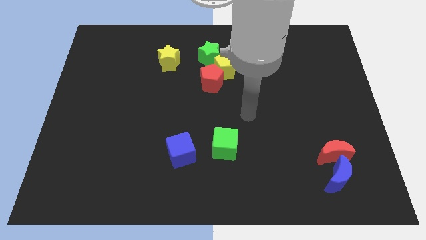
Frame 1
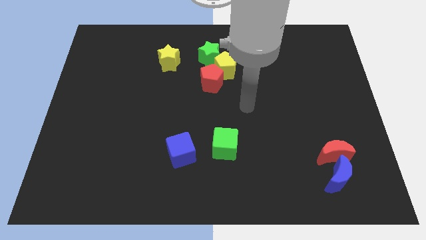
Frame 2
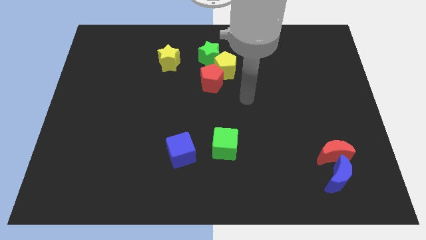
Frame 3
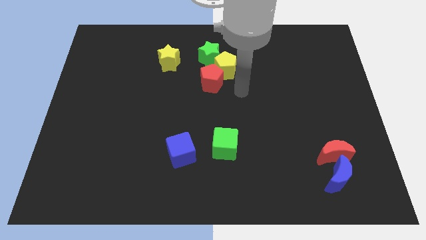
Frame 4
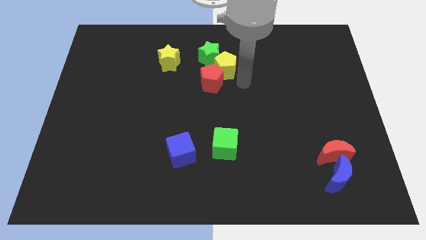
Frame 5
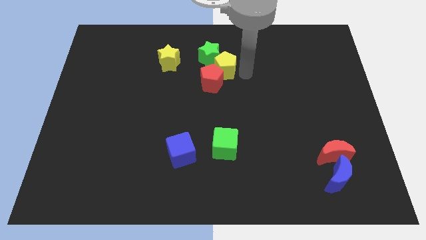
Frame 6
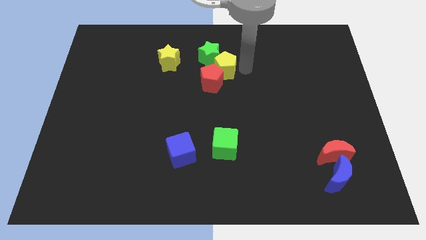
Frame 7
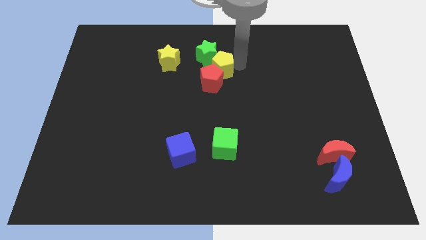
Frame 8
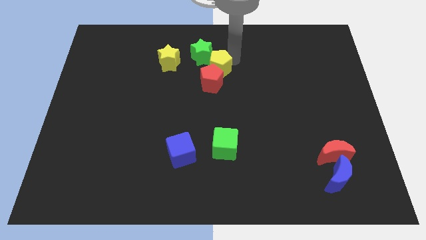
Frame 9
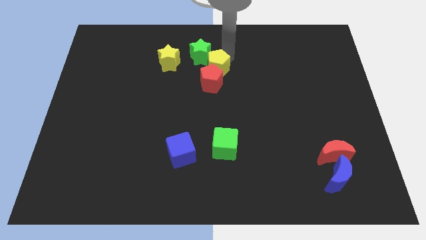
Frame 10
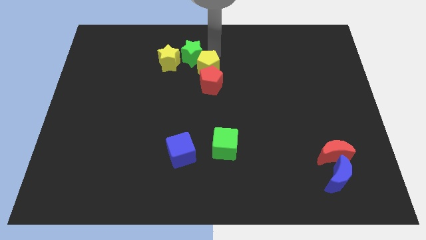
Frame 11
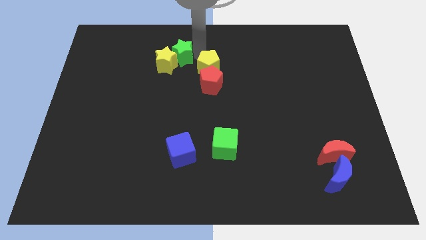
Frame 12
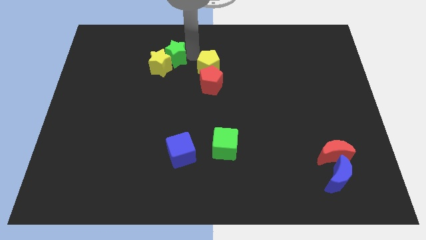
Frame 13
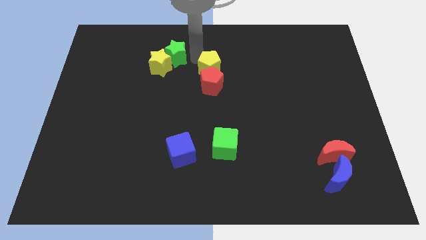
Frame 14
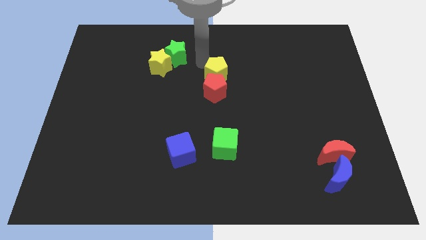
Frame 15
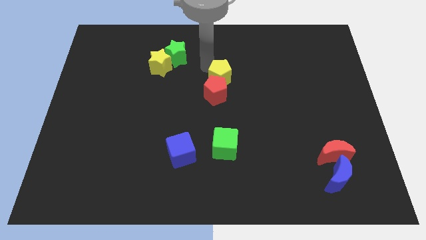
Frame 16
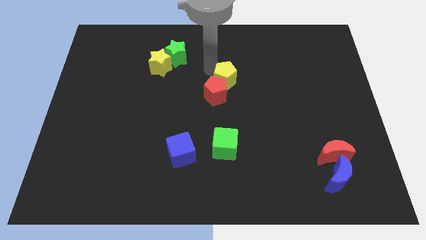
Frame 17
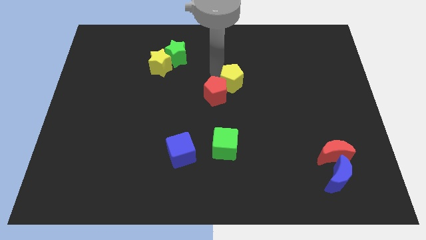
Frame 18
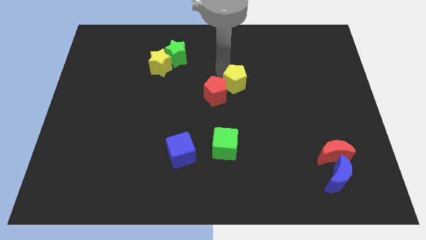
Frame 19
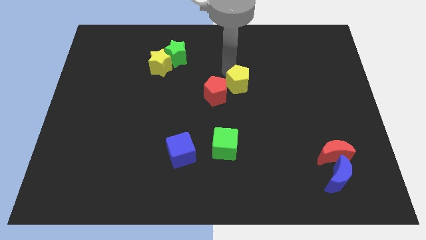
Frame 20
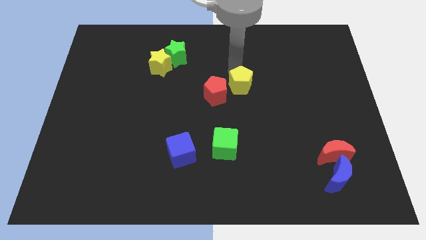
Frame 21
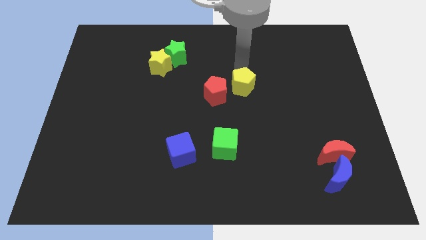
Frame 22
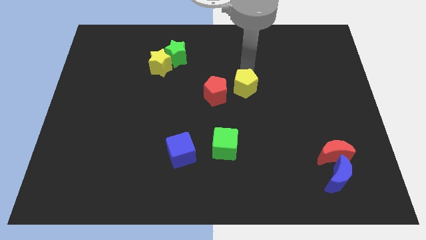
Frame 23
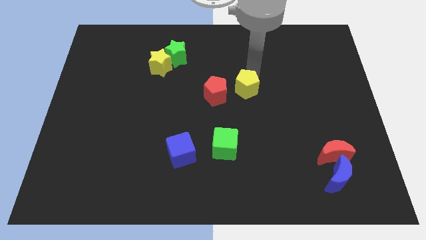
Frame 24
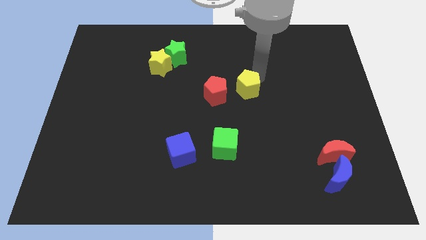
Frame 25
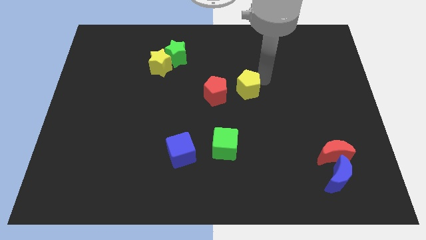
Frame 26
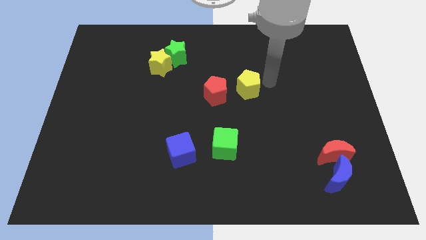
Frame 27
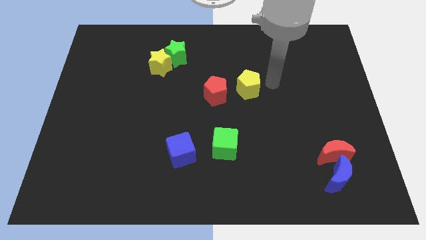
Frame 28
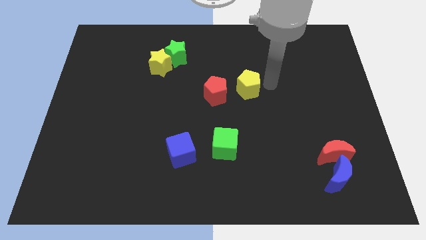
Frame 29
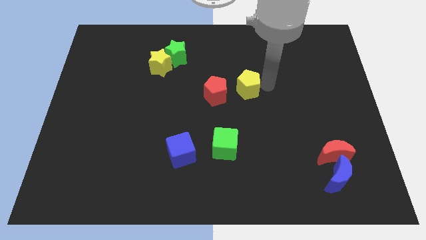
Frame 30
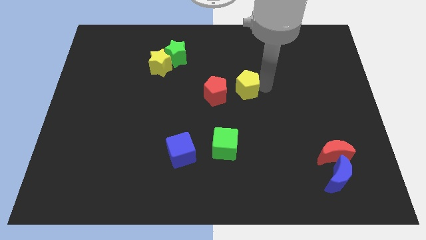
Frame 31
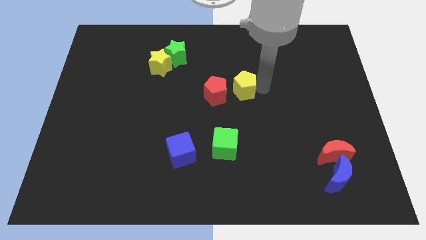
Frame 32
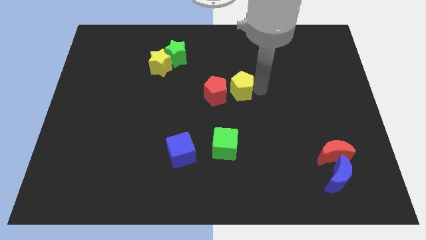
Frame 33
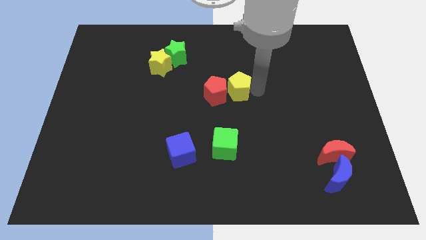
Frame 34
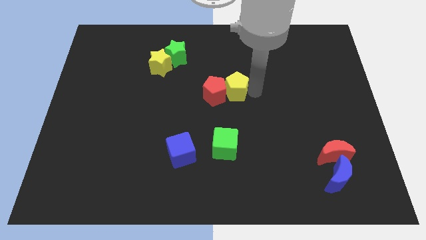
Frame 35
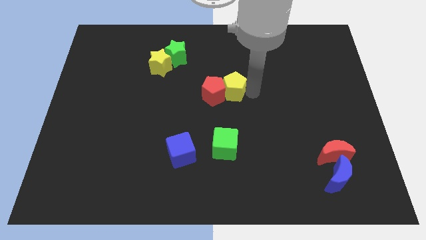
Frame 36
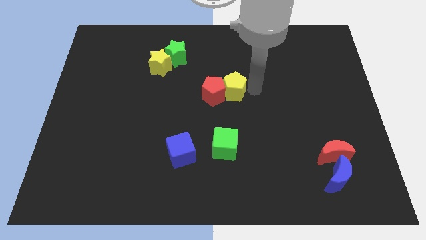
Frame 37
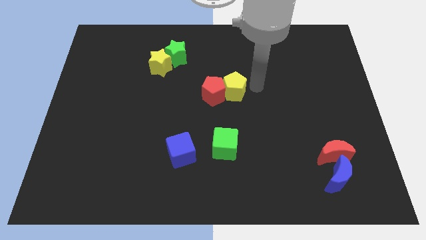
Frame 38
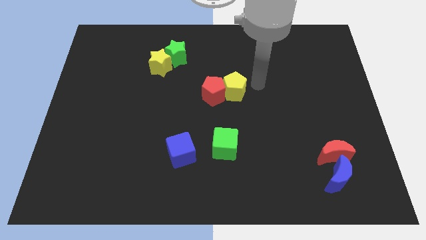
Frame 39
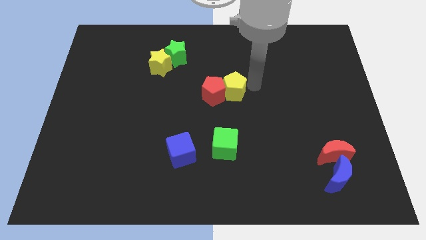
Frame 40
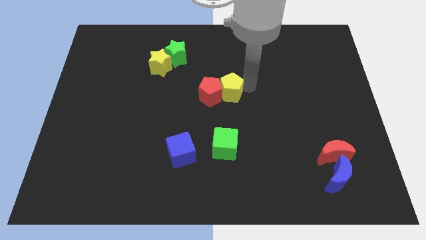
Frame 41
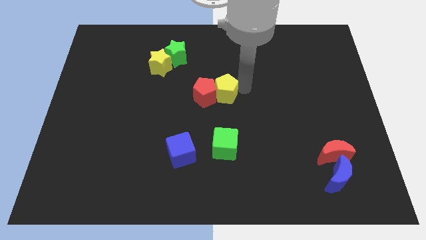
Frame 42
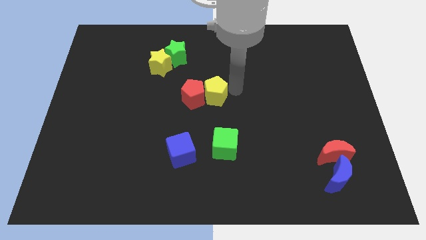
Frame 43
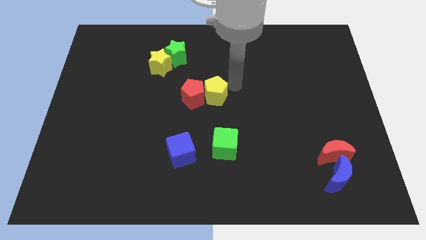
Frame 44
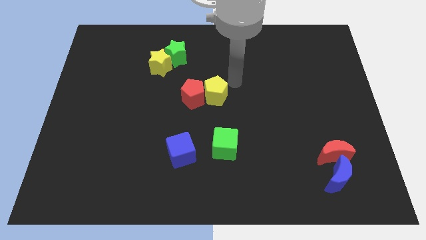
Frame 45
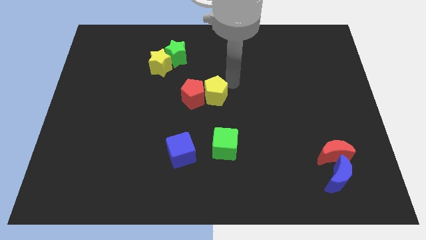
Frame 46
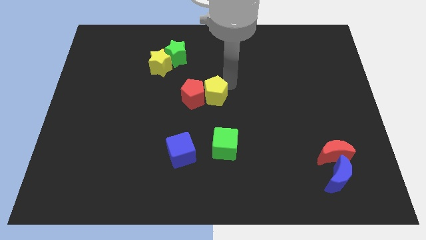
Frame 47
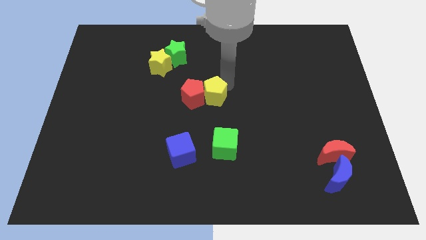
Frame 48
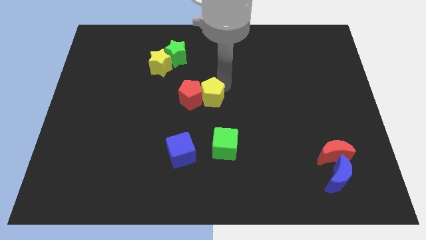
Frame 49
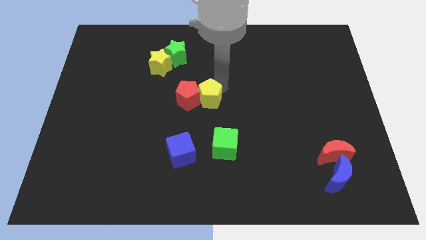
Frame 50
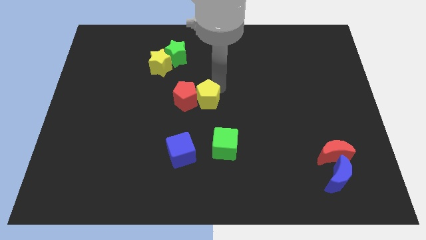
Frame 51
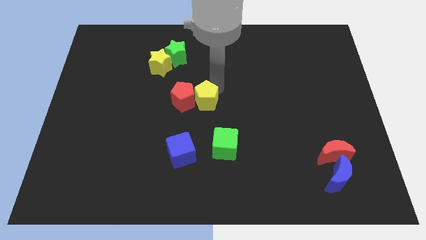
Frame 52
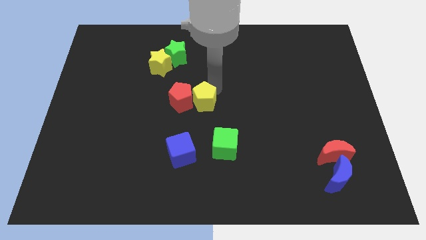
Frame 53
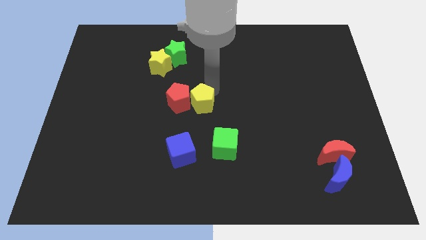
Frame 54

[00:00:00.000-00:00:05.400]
put the yellow pentagon to the top side of the blue cube

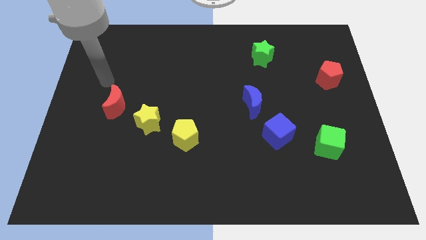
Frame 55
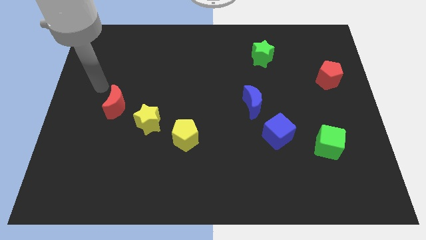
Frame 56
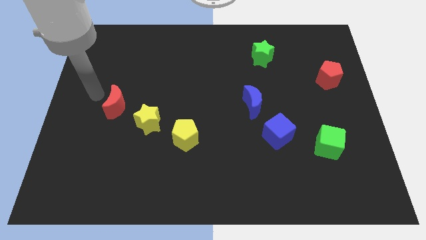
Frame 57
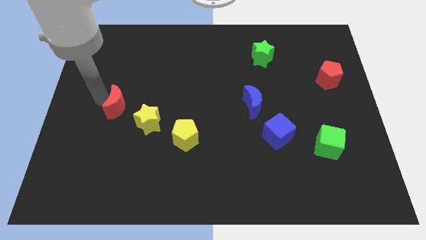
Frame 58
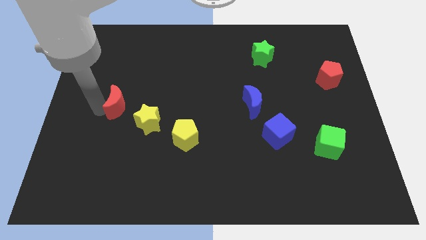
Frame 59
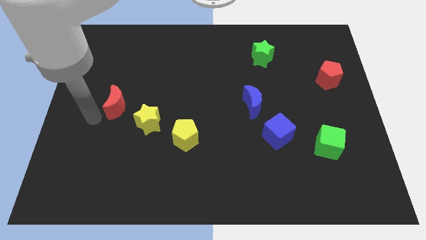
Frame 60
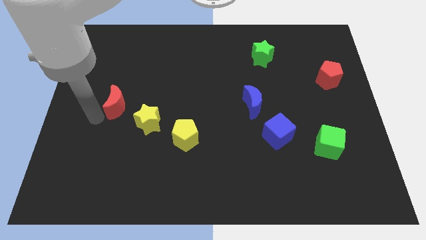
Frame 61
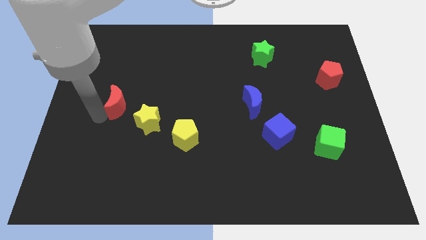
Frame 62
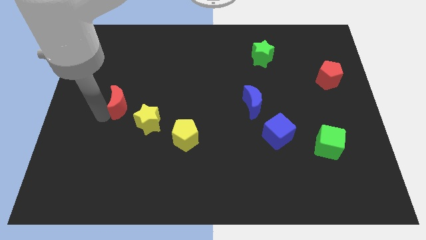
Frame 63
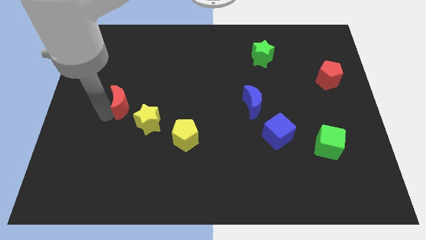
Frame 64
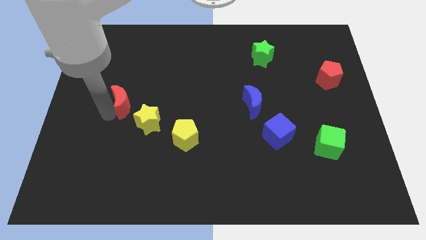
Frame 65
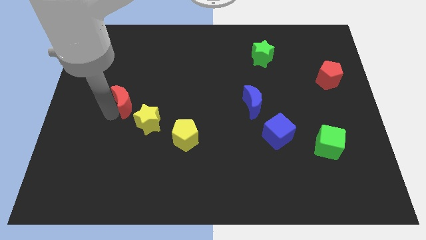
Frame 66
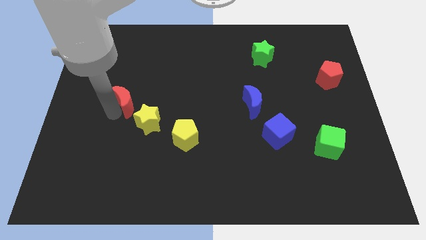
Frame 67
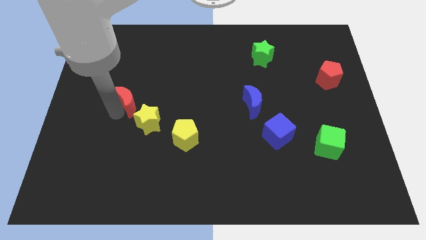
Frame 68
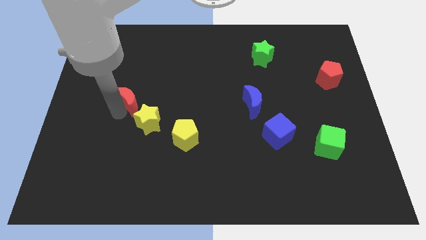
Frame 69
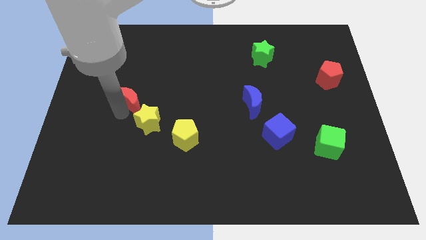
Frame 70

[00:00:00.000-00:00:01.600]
slide the red moon above the yellow star
